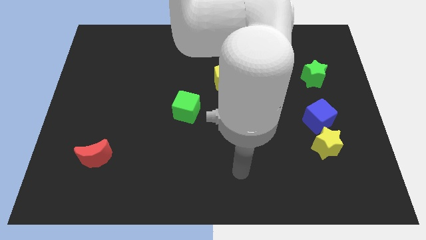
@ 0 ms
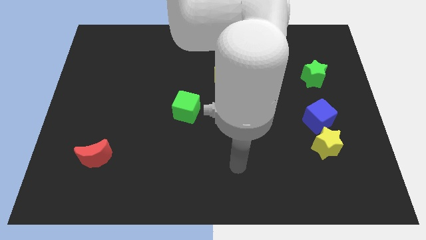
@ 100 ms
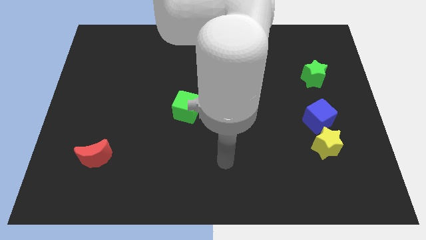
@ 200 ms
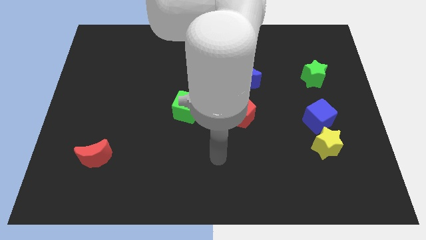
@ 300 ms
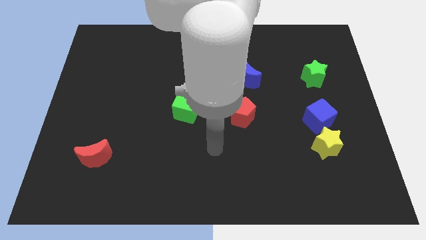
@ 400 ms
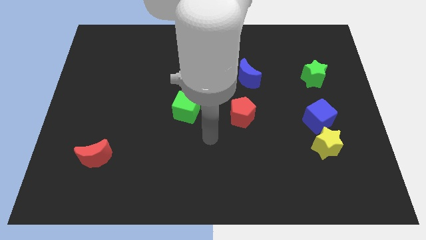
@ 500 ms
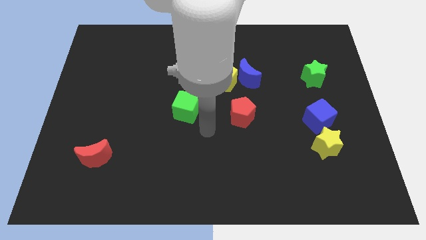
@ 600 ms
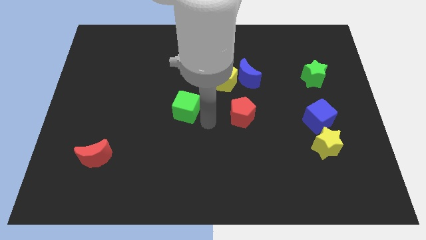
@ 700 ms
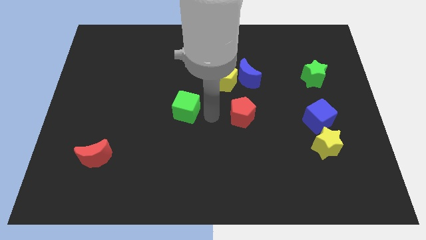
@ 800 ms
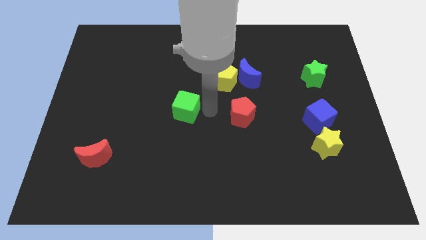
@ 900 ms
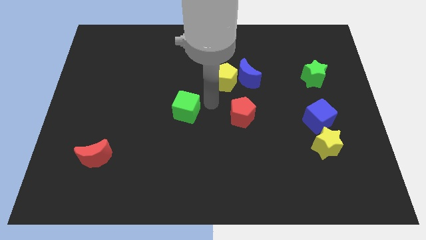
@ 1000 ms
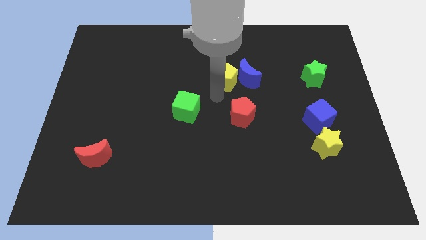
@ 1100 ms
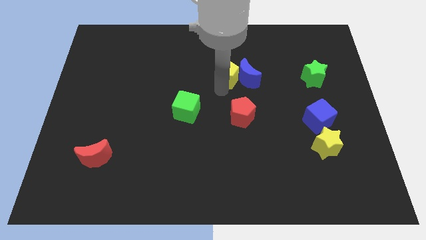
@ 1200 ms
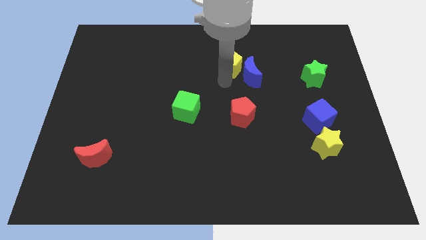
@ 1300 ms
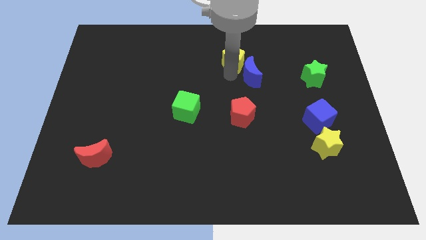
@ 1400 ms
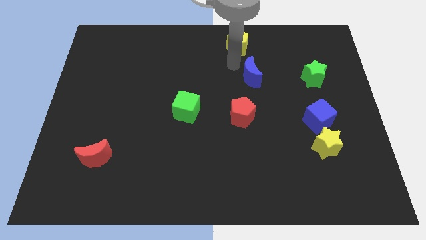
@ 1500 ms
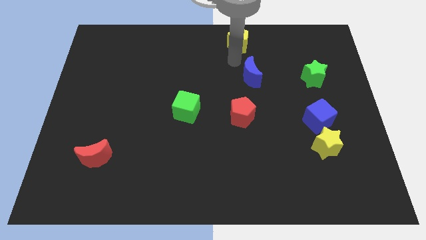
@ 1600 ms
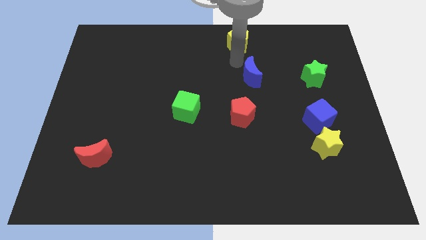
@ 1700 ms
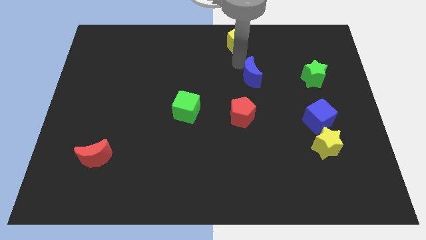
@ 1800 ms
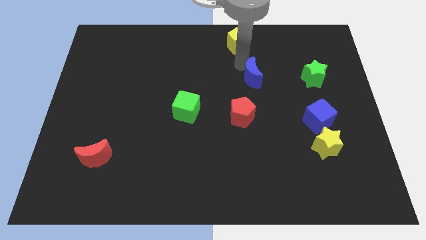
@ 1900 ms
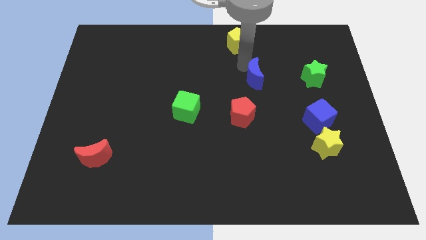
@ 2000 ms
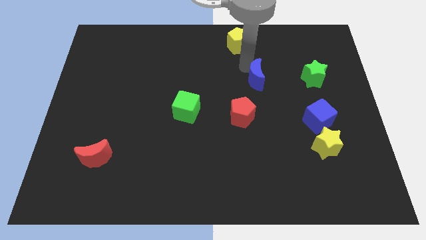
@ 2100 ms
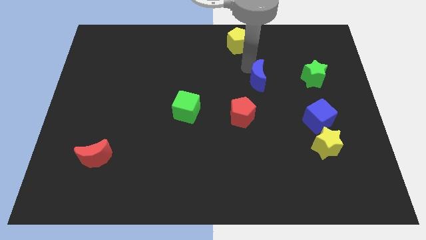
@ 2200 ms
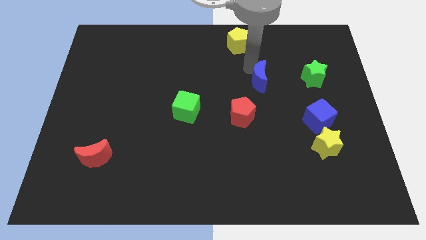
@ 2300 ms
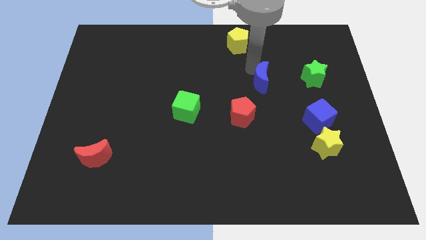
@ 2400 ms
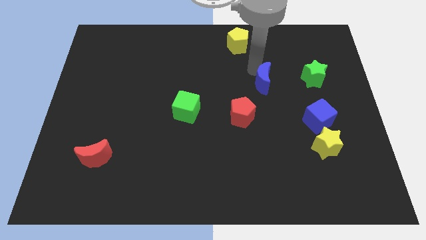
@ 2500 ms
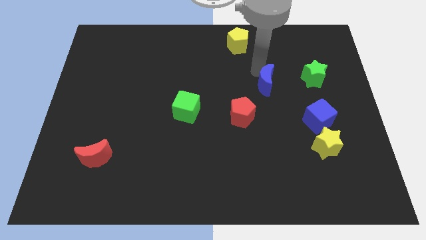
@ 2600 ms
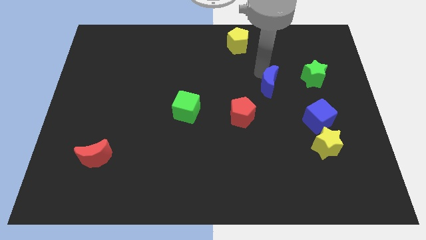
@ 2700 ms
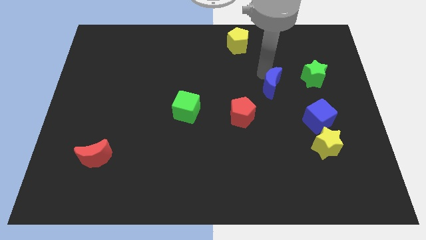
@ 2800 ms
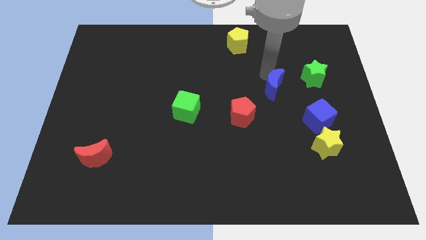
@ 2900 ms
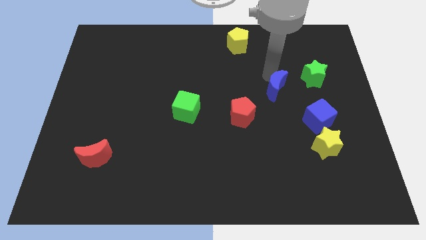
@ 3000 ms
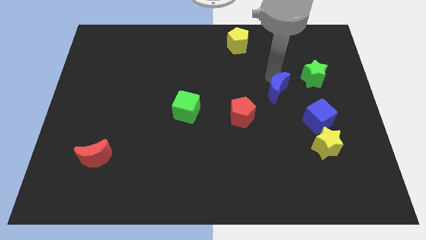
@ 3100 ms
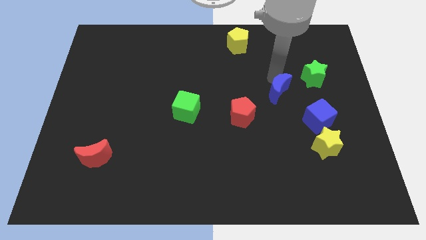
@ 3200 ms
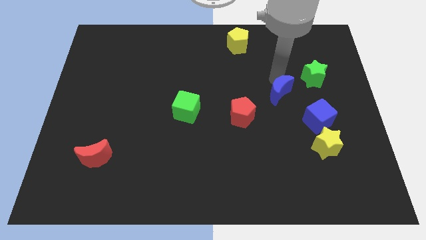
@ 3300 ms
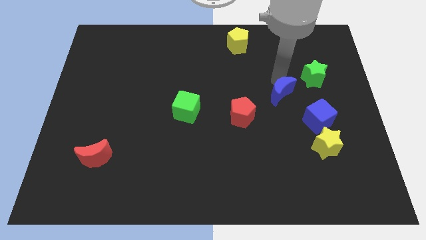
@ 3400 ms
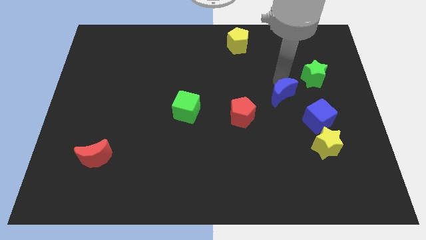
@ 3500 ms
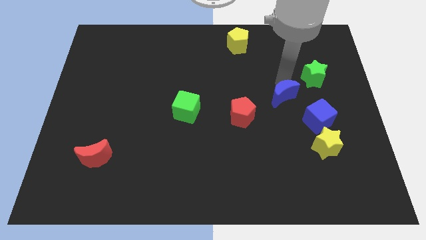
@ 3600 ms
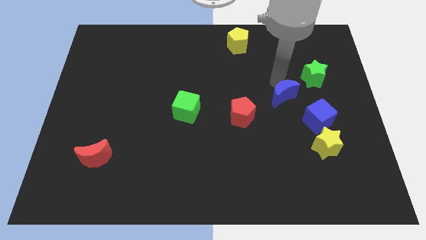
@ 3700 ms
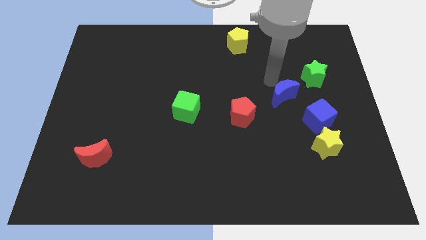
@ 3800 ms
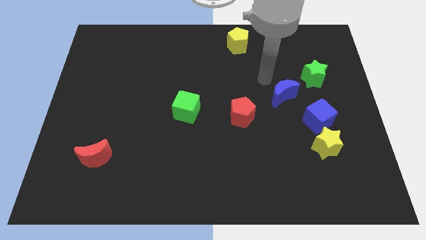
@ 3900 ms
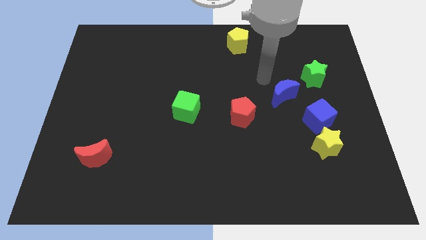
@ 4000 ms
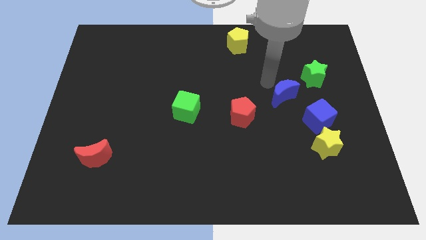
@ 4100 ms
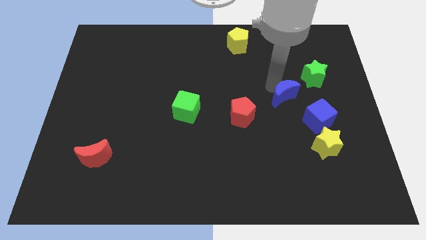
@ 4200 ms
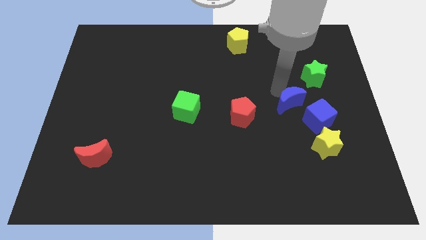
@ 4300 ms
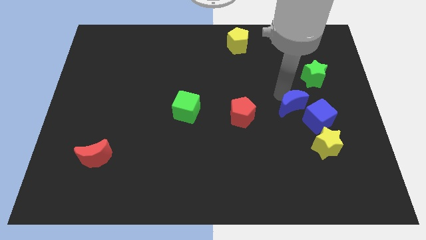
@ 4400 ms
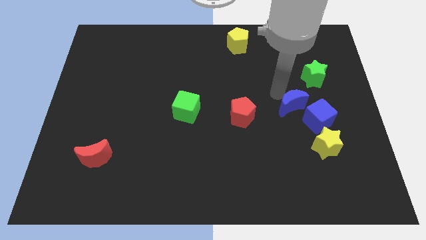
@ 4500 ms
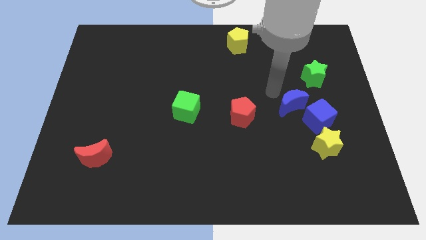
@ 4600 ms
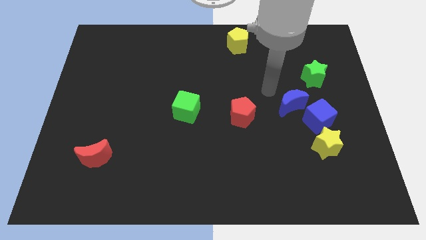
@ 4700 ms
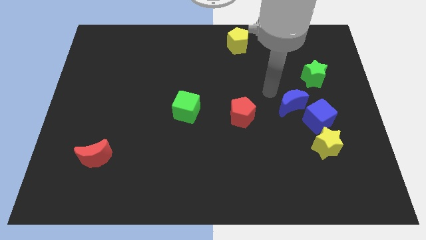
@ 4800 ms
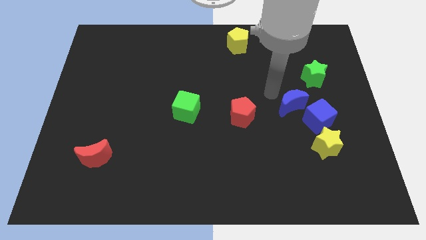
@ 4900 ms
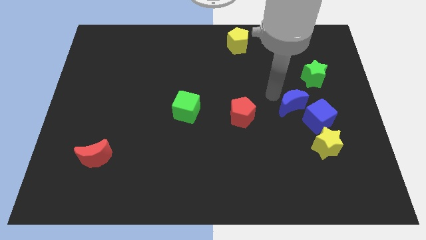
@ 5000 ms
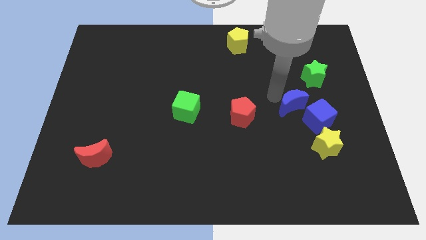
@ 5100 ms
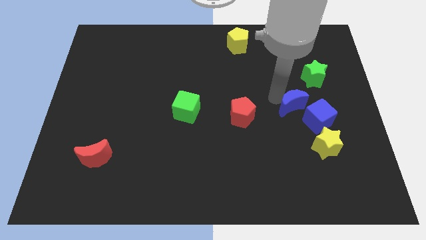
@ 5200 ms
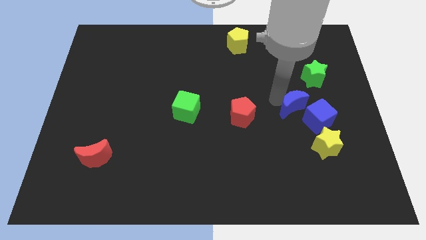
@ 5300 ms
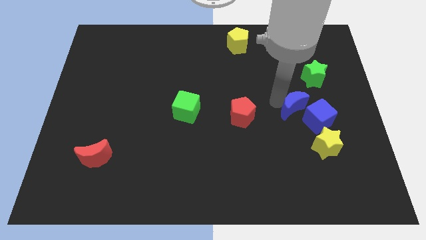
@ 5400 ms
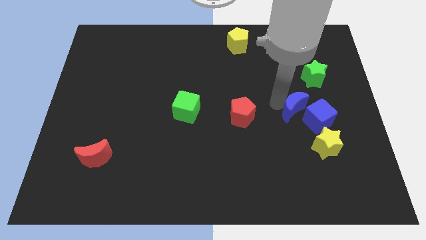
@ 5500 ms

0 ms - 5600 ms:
push the blue moon close to the blue cube

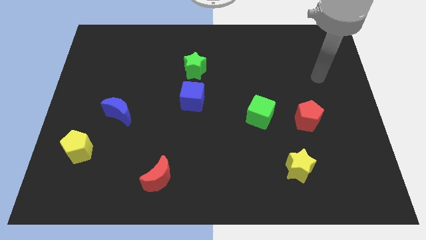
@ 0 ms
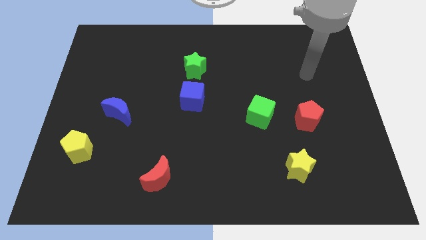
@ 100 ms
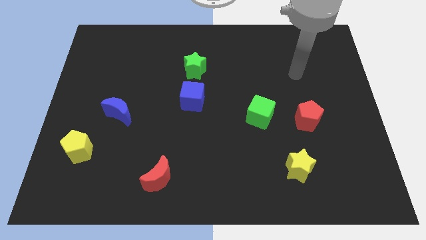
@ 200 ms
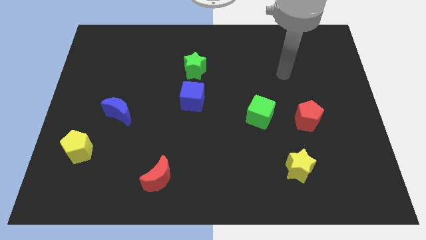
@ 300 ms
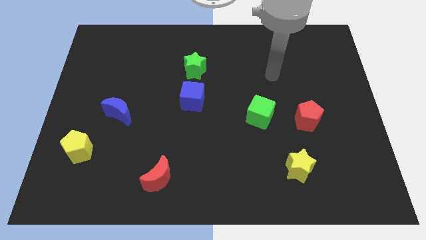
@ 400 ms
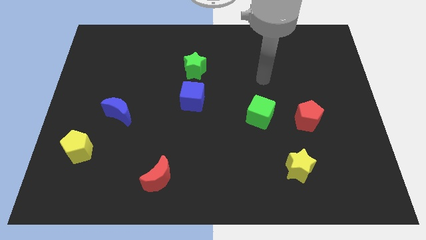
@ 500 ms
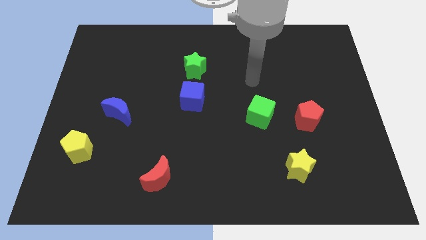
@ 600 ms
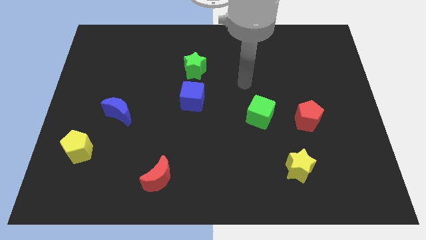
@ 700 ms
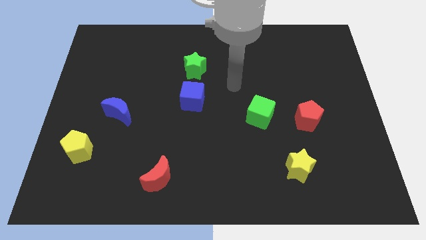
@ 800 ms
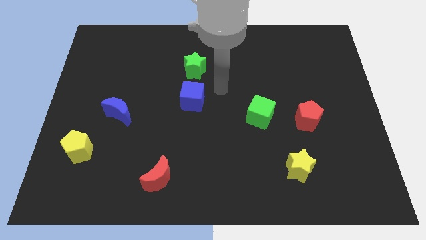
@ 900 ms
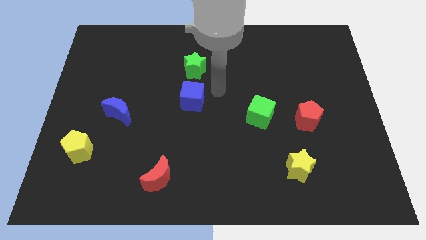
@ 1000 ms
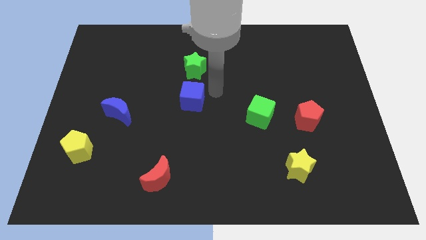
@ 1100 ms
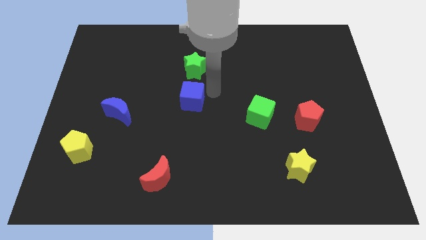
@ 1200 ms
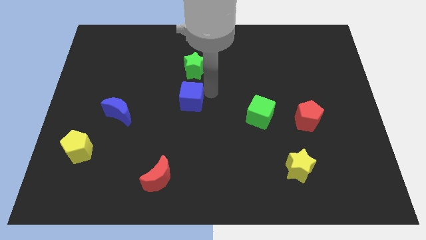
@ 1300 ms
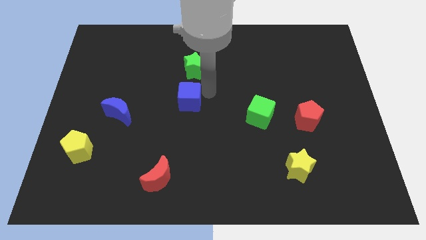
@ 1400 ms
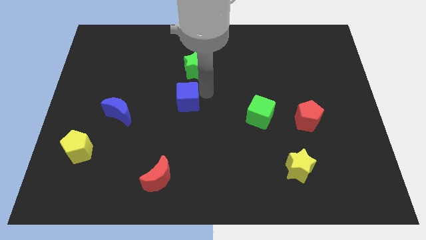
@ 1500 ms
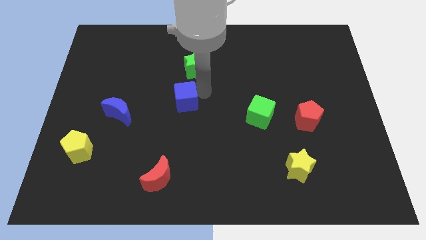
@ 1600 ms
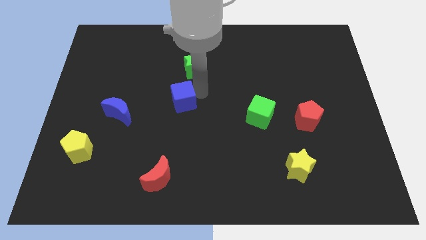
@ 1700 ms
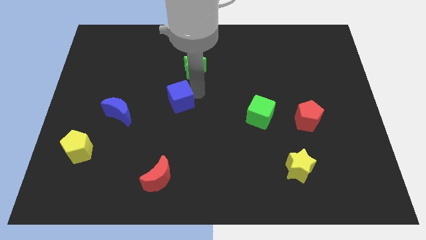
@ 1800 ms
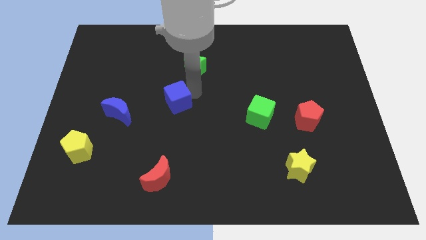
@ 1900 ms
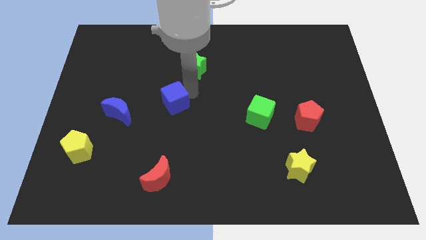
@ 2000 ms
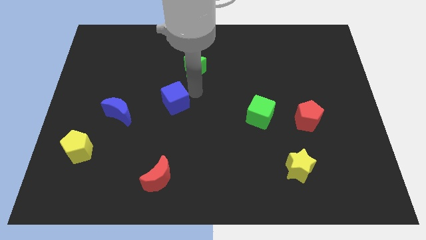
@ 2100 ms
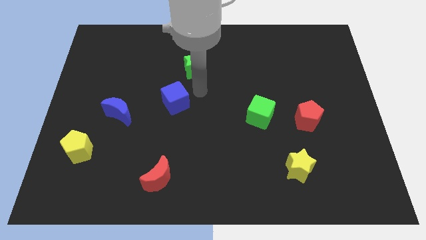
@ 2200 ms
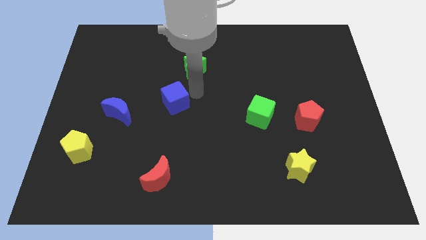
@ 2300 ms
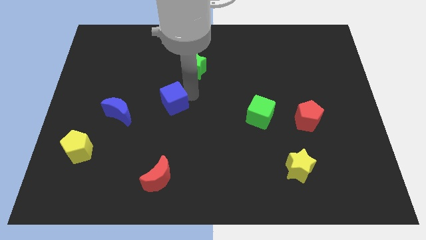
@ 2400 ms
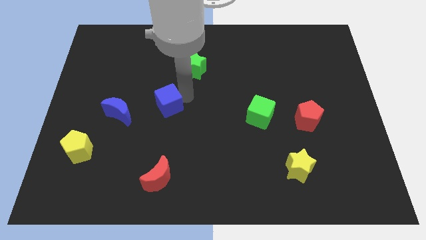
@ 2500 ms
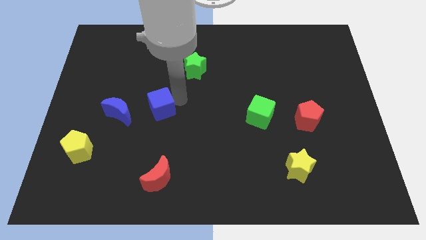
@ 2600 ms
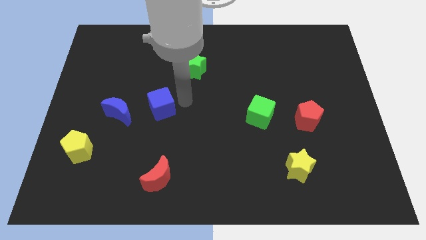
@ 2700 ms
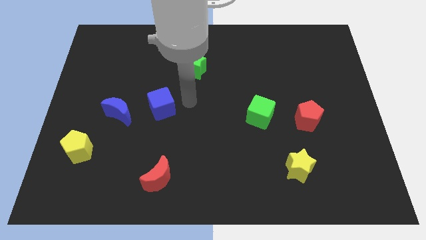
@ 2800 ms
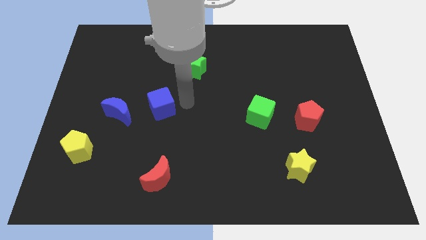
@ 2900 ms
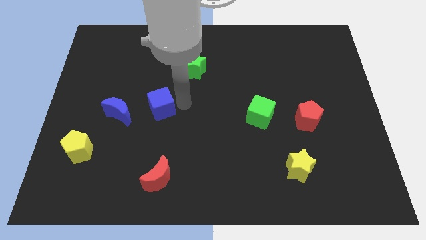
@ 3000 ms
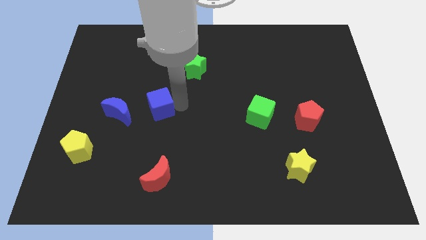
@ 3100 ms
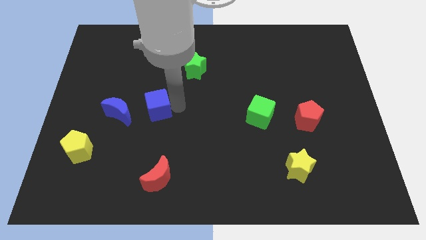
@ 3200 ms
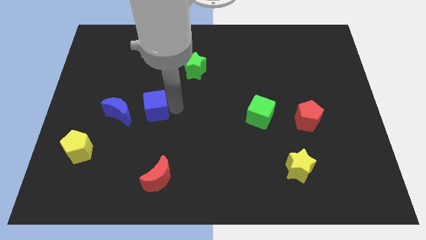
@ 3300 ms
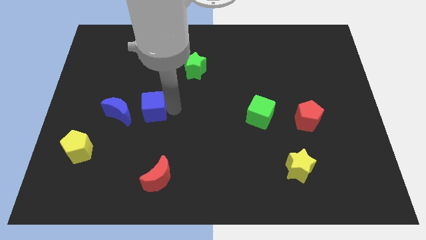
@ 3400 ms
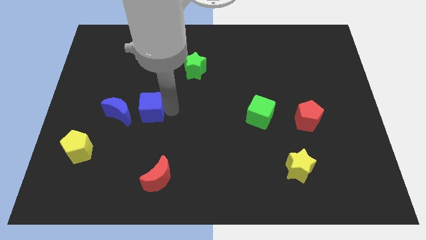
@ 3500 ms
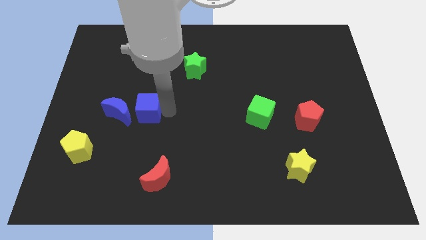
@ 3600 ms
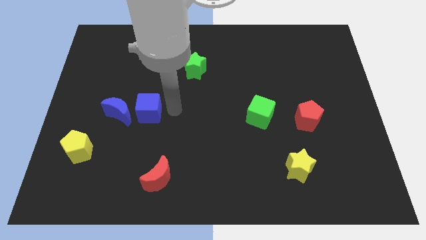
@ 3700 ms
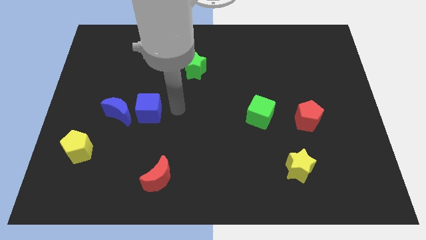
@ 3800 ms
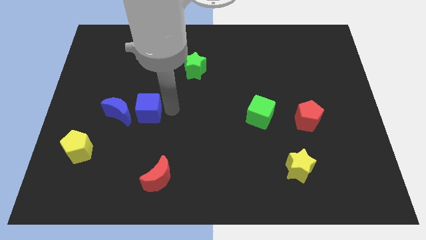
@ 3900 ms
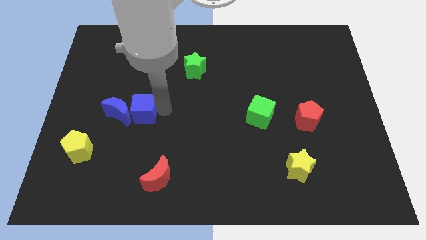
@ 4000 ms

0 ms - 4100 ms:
put the blue cube to the blue moon
